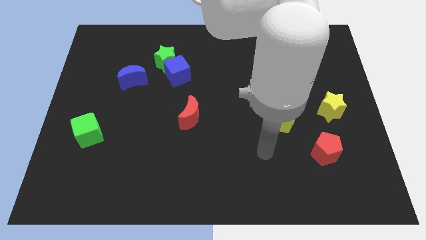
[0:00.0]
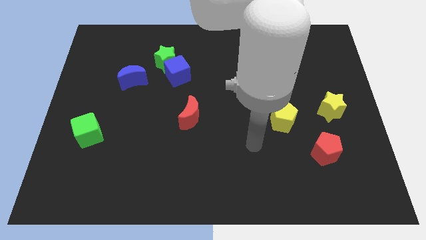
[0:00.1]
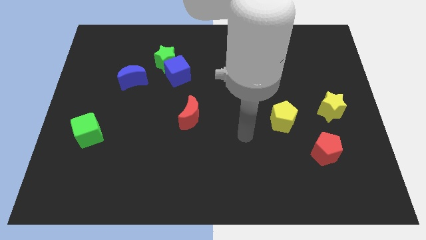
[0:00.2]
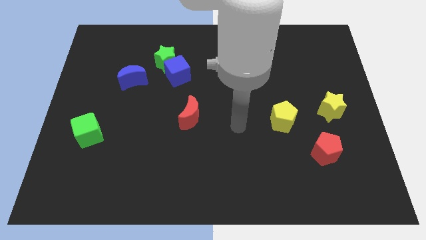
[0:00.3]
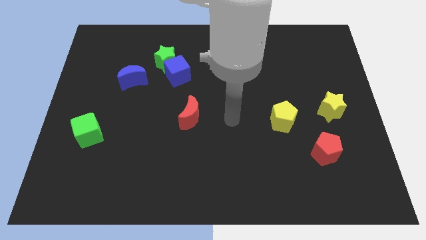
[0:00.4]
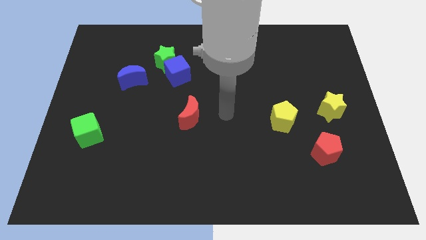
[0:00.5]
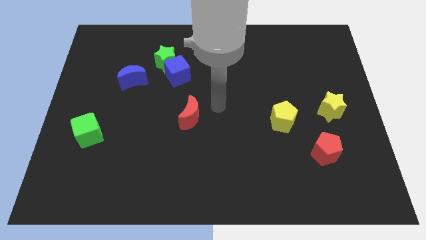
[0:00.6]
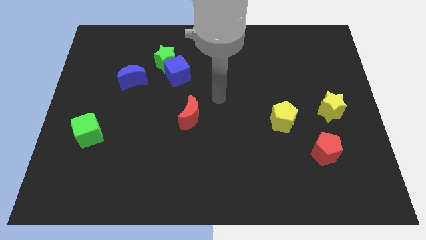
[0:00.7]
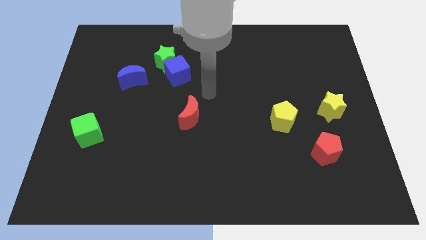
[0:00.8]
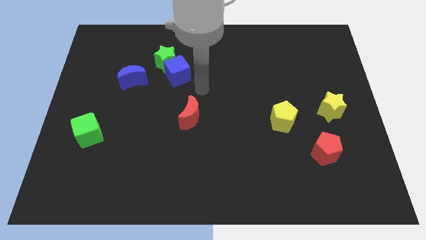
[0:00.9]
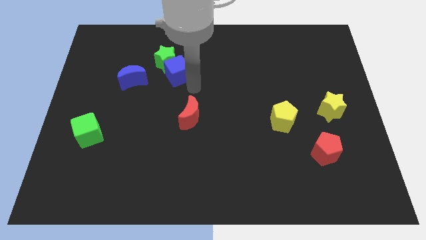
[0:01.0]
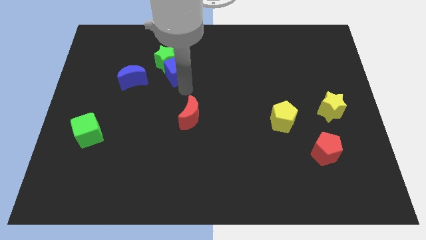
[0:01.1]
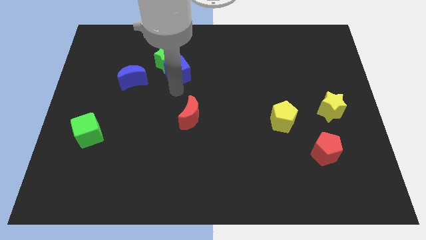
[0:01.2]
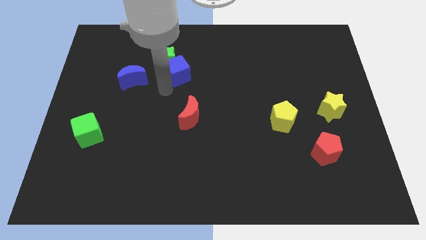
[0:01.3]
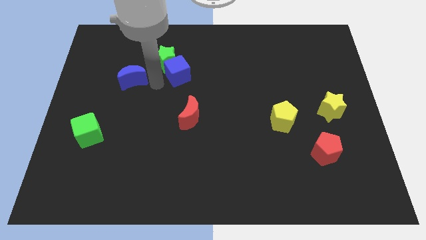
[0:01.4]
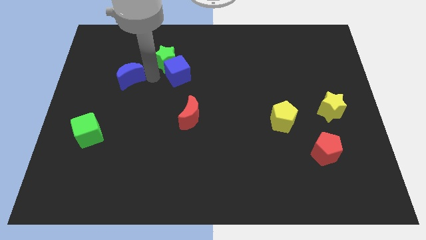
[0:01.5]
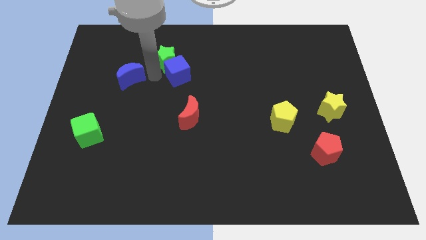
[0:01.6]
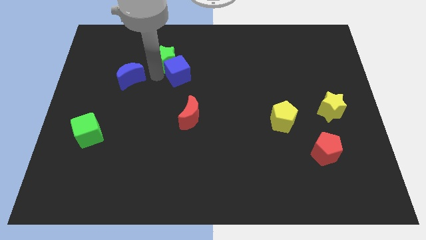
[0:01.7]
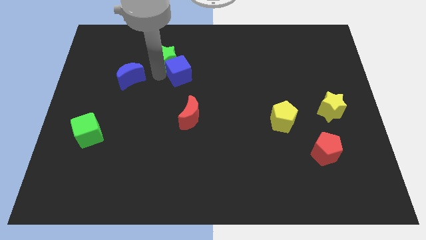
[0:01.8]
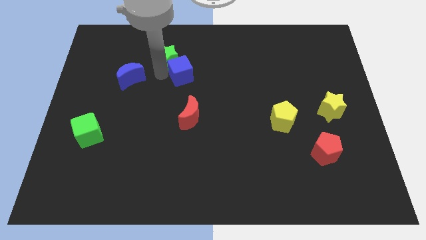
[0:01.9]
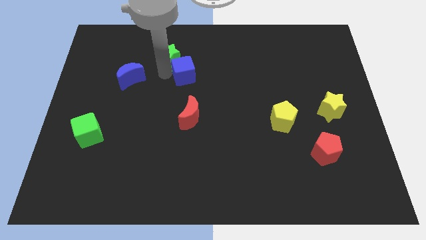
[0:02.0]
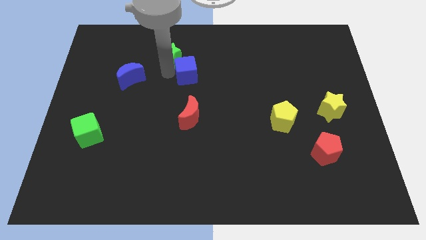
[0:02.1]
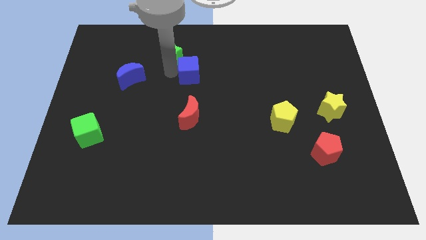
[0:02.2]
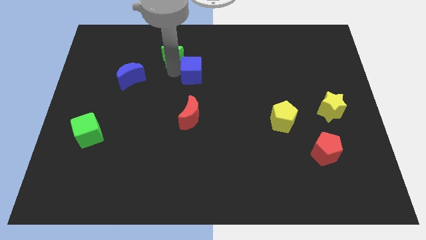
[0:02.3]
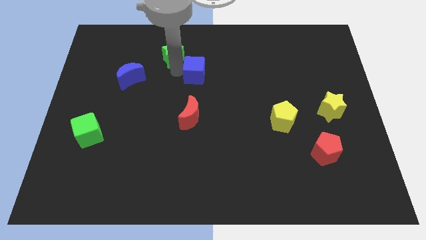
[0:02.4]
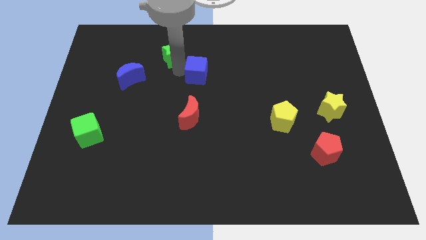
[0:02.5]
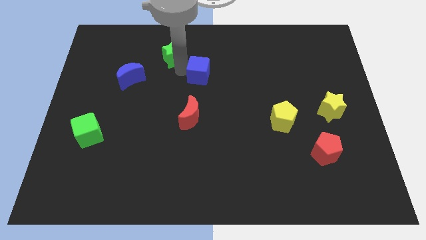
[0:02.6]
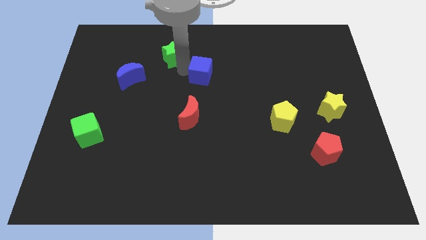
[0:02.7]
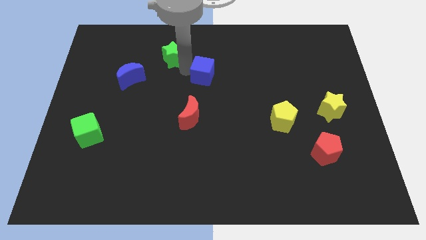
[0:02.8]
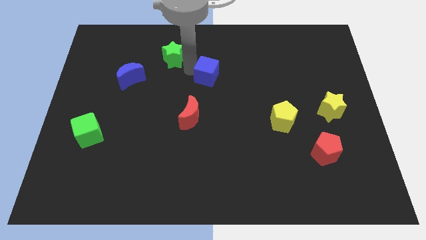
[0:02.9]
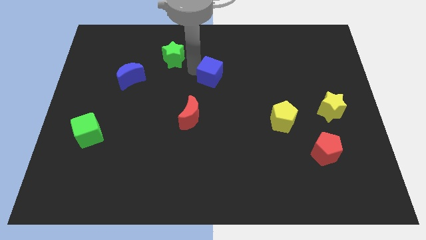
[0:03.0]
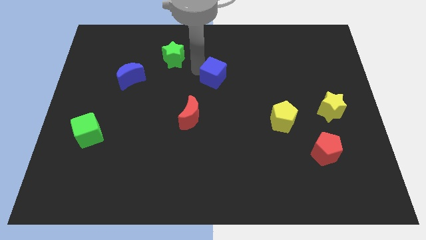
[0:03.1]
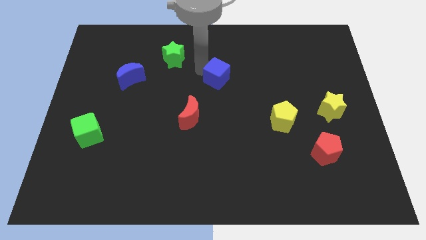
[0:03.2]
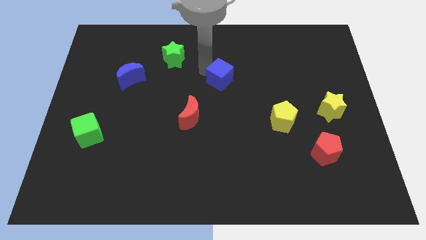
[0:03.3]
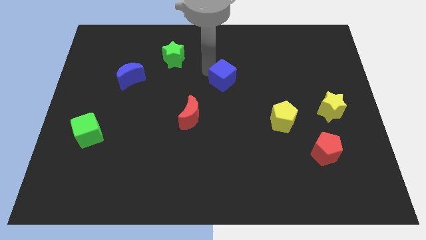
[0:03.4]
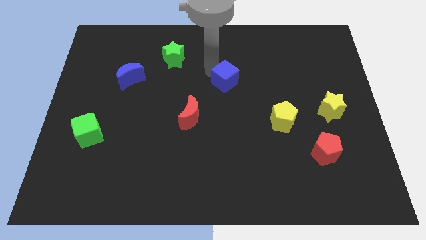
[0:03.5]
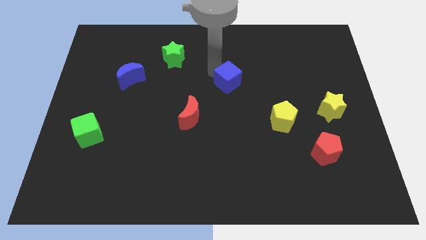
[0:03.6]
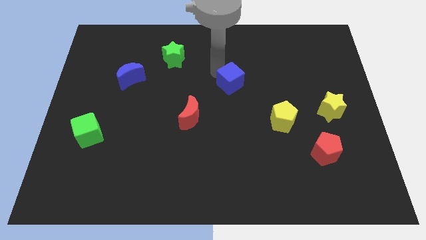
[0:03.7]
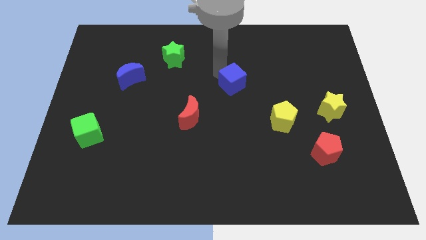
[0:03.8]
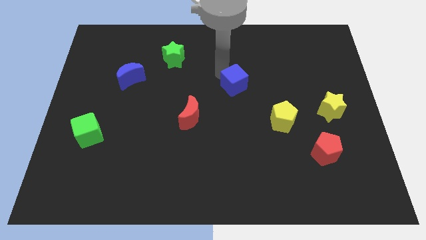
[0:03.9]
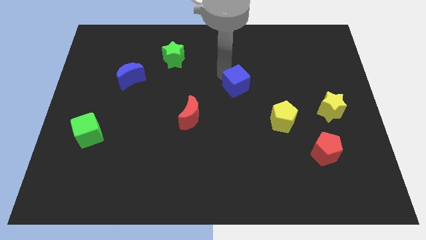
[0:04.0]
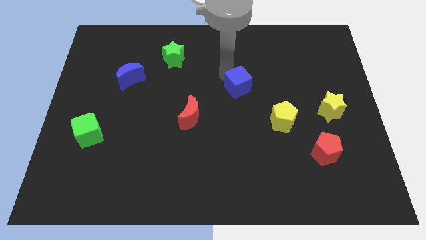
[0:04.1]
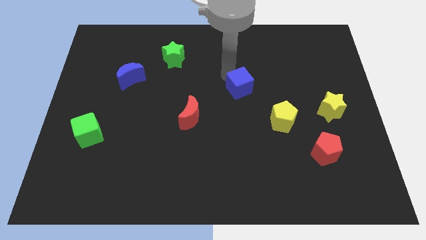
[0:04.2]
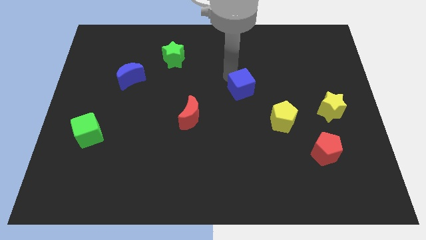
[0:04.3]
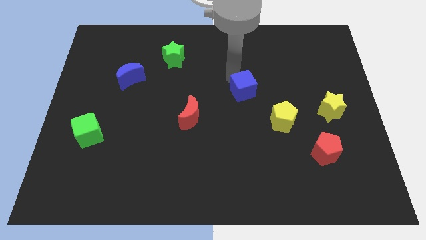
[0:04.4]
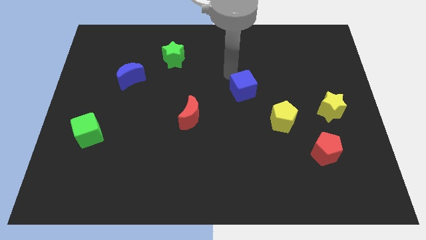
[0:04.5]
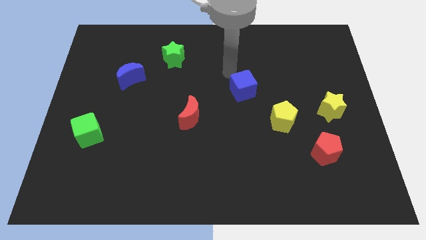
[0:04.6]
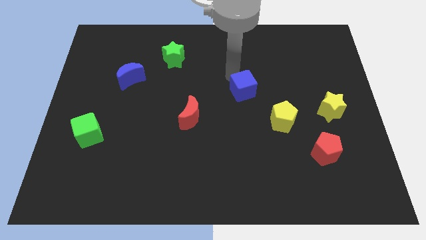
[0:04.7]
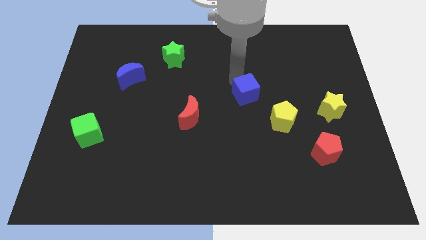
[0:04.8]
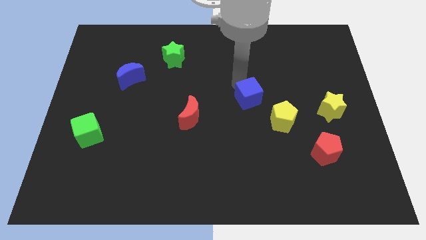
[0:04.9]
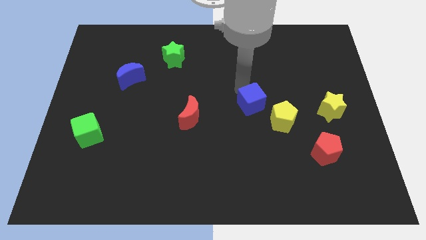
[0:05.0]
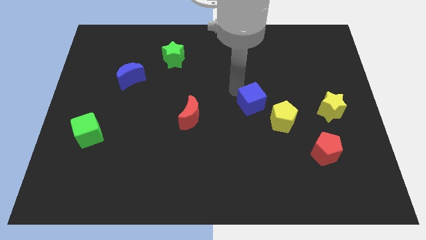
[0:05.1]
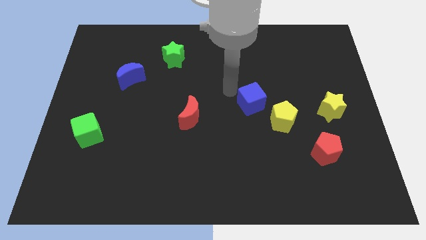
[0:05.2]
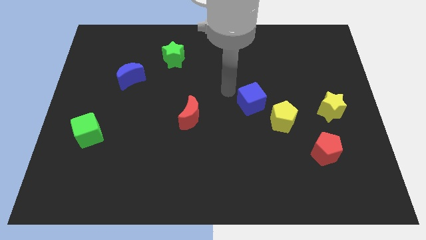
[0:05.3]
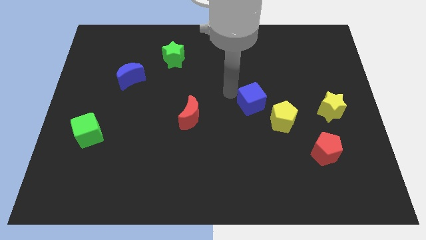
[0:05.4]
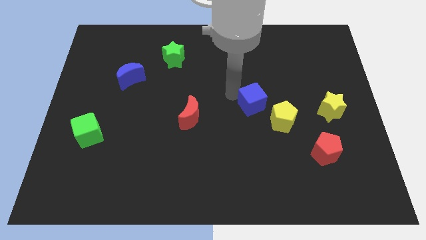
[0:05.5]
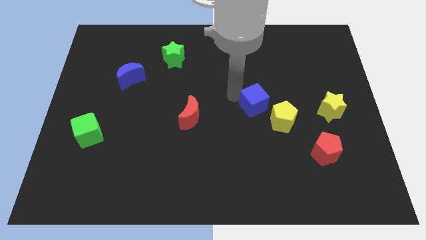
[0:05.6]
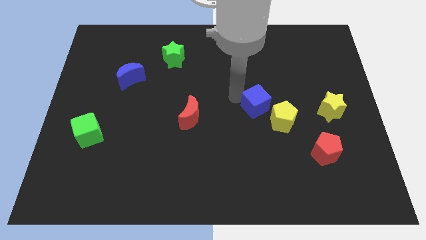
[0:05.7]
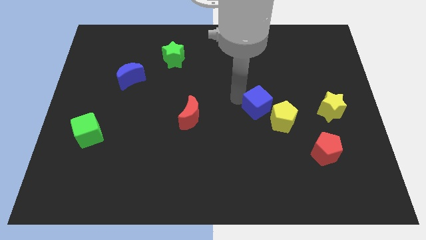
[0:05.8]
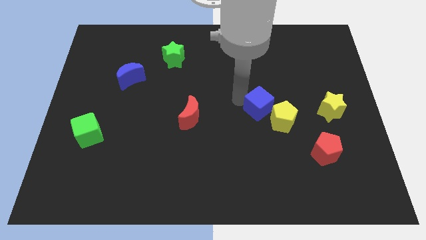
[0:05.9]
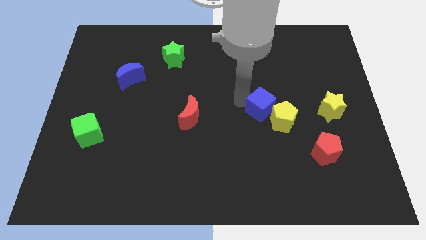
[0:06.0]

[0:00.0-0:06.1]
push the blue cube next to the yellow pentagon

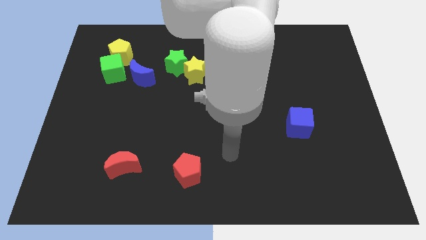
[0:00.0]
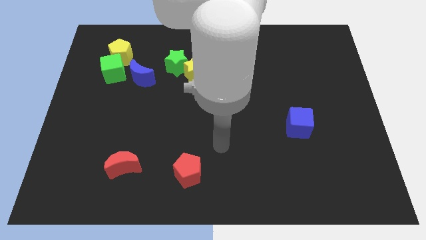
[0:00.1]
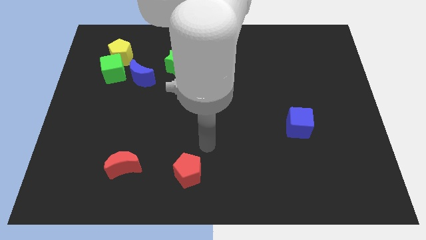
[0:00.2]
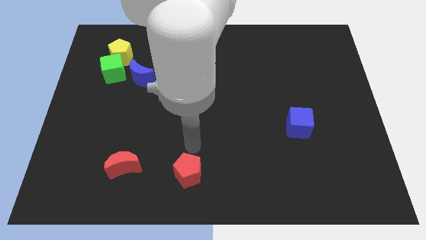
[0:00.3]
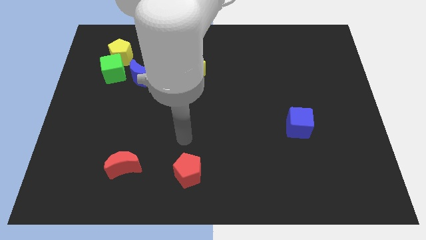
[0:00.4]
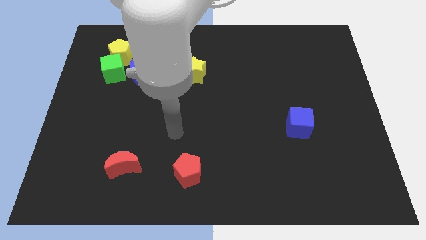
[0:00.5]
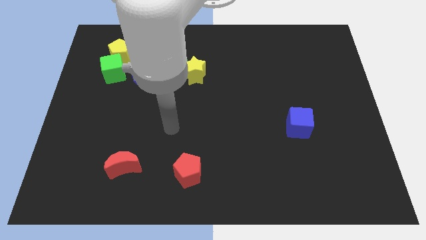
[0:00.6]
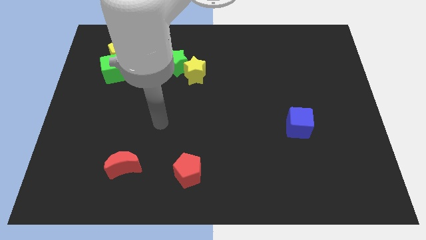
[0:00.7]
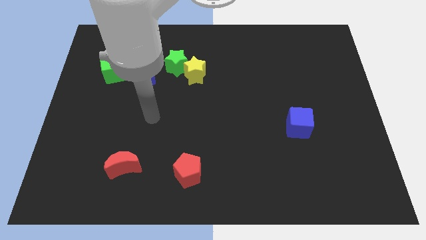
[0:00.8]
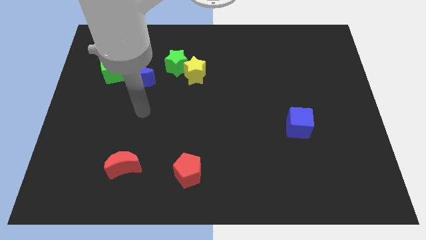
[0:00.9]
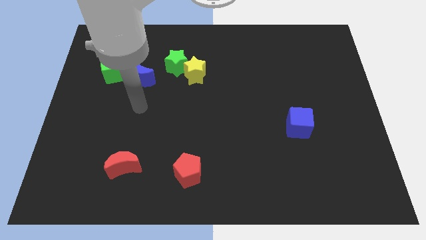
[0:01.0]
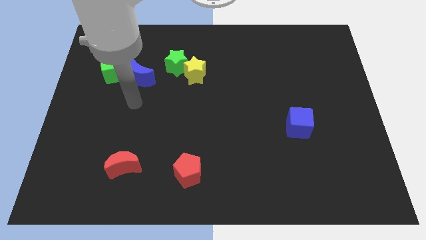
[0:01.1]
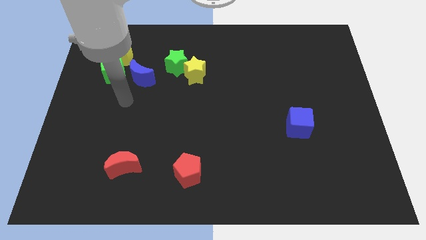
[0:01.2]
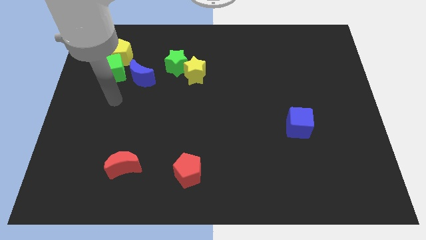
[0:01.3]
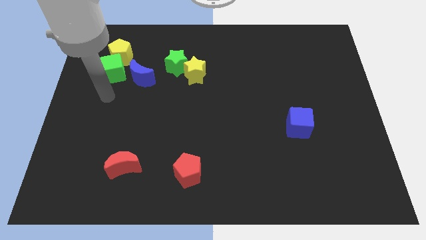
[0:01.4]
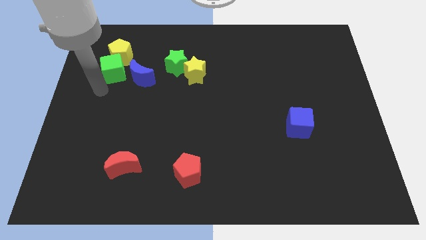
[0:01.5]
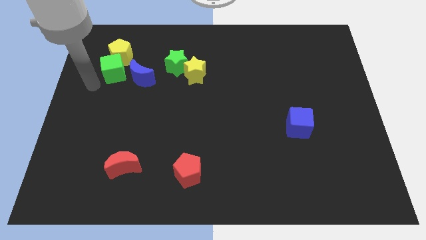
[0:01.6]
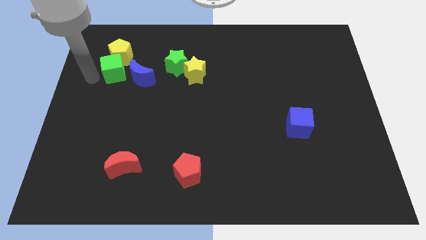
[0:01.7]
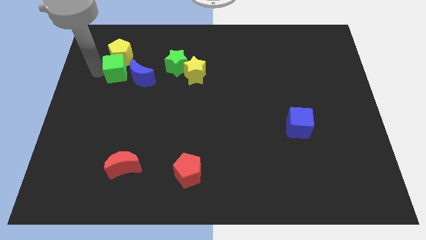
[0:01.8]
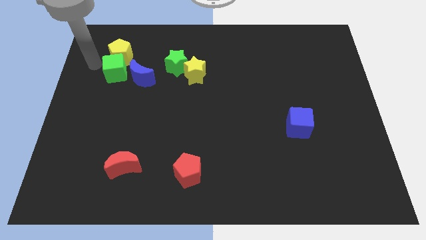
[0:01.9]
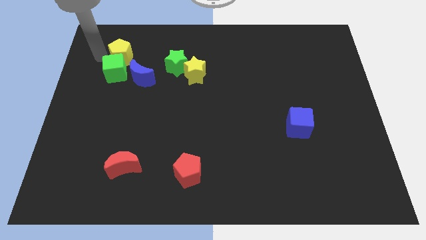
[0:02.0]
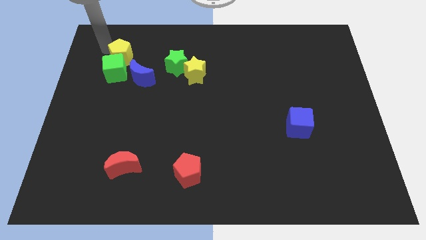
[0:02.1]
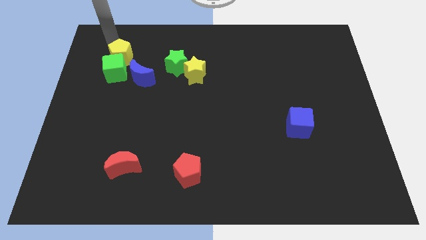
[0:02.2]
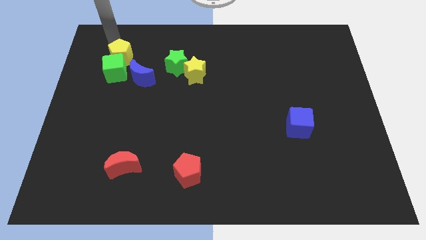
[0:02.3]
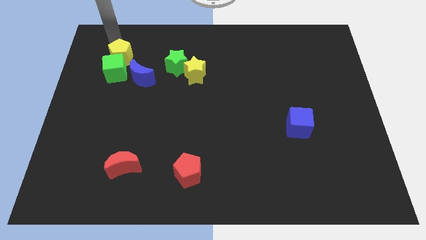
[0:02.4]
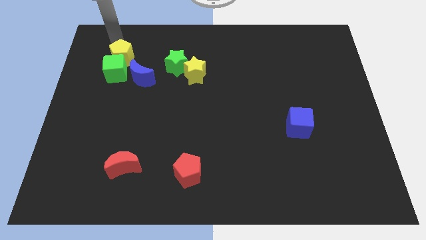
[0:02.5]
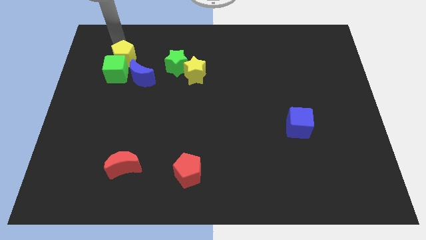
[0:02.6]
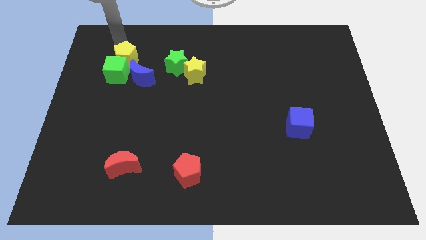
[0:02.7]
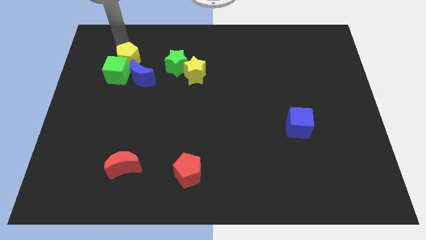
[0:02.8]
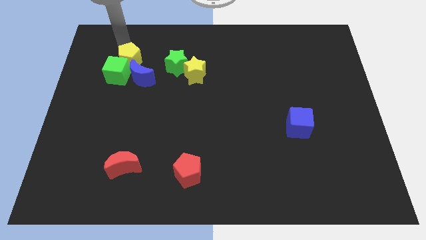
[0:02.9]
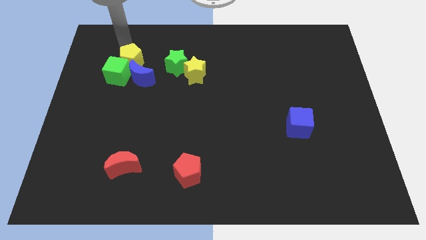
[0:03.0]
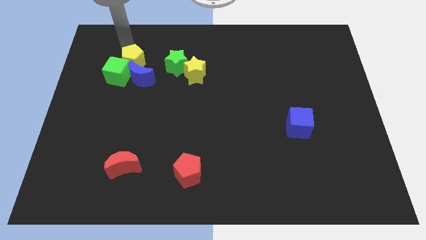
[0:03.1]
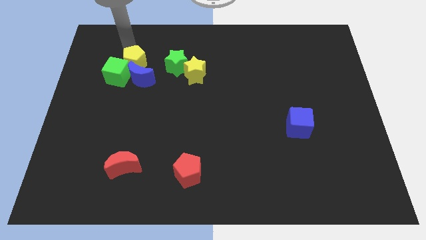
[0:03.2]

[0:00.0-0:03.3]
move the yellow pentagon towards the blue moon
